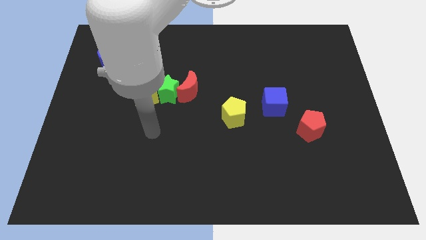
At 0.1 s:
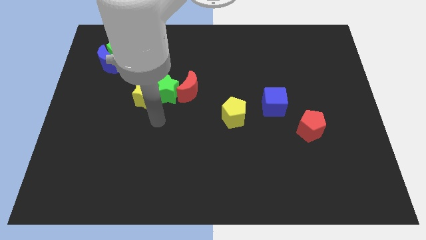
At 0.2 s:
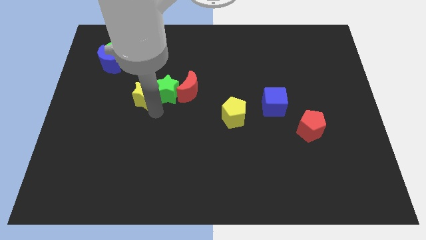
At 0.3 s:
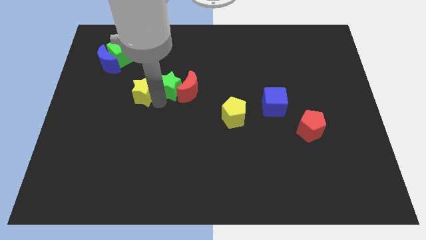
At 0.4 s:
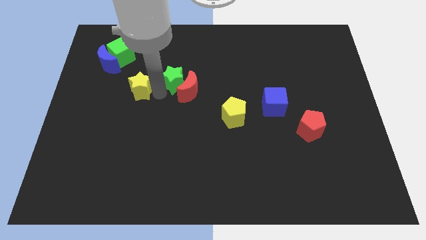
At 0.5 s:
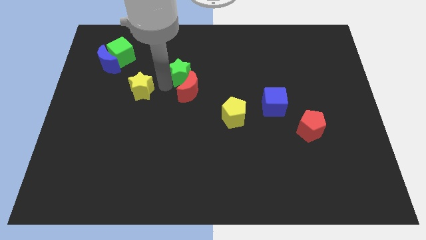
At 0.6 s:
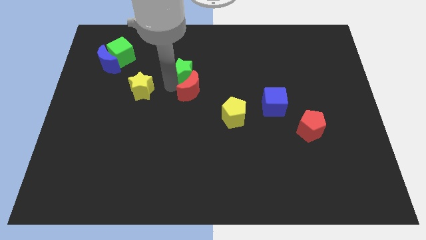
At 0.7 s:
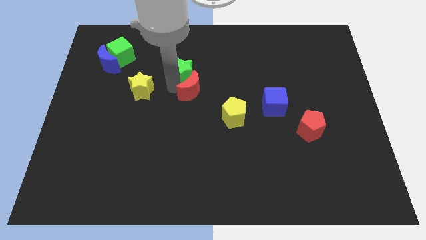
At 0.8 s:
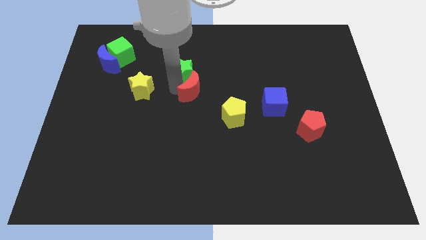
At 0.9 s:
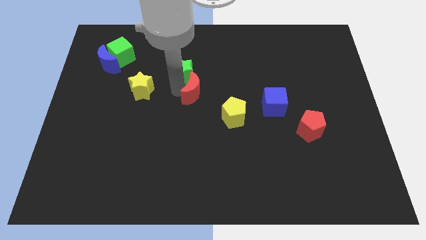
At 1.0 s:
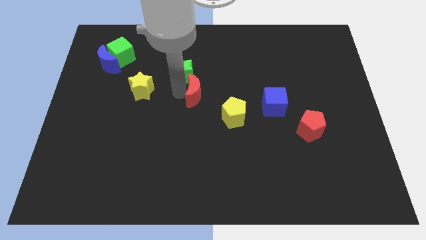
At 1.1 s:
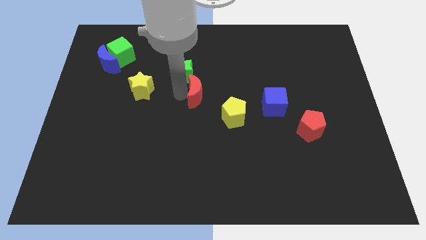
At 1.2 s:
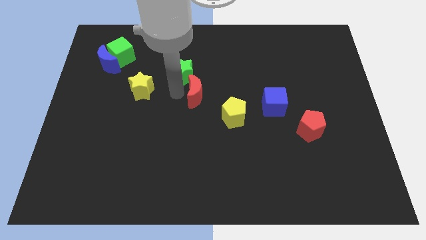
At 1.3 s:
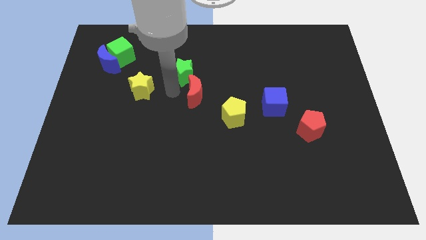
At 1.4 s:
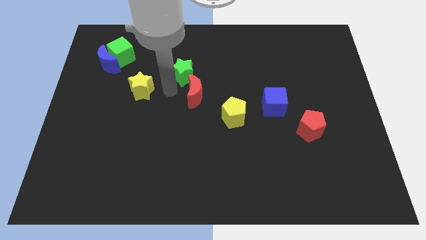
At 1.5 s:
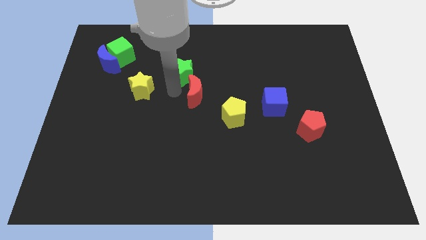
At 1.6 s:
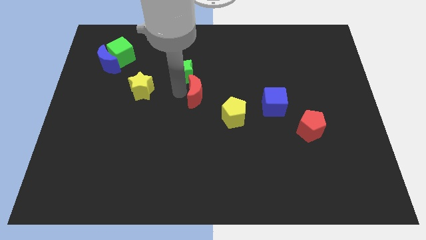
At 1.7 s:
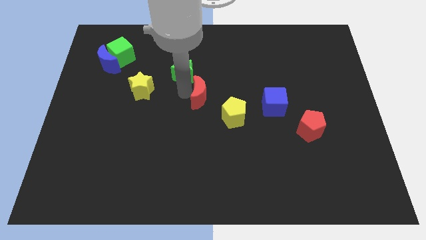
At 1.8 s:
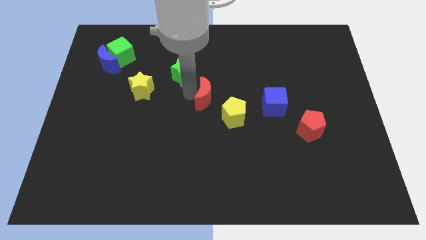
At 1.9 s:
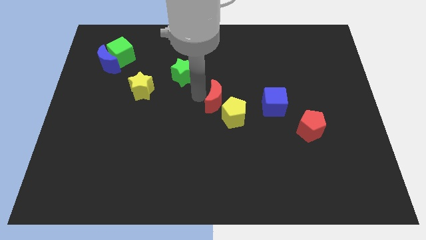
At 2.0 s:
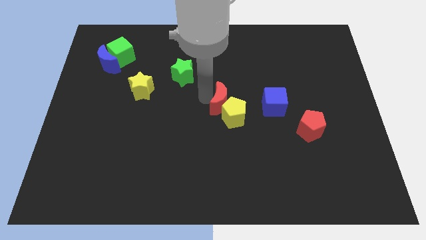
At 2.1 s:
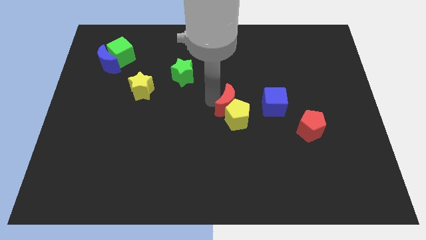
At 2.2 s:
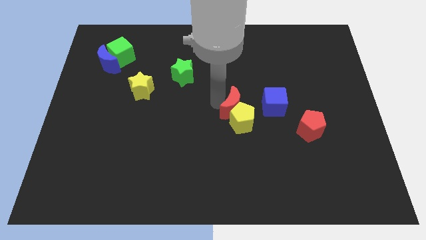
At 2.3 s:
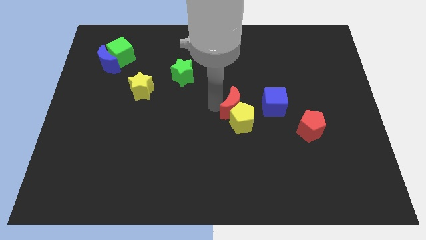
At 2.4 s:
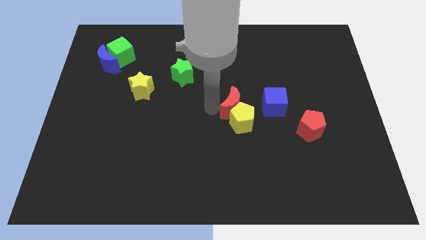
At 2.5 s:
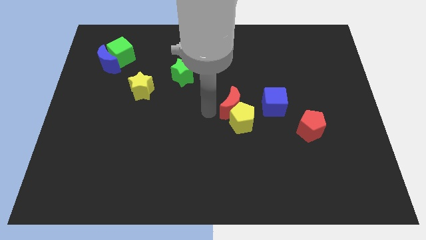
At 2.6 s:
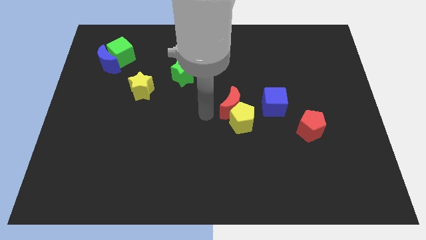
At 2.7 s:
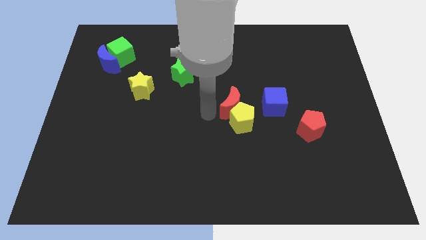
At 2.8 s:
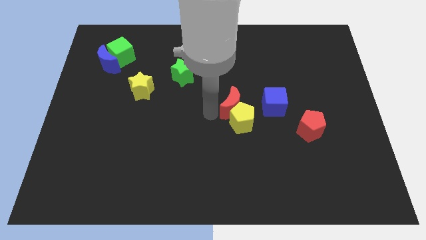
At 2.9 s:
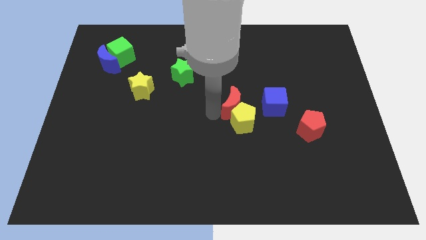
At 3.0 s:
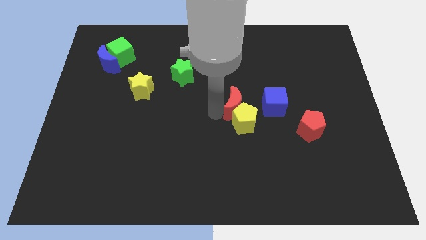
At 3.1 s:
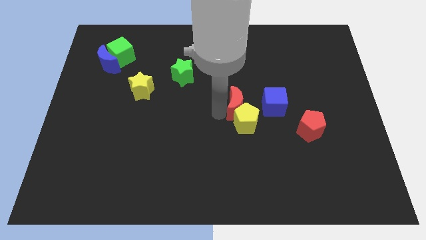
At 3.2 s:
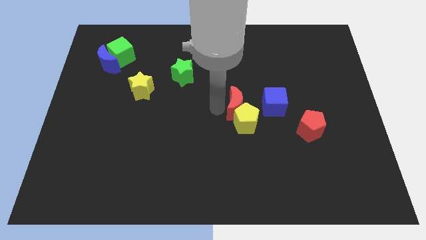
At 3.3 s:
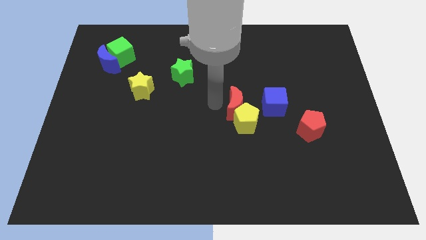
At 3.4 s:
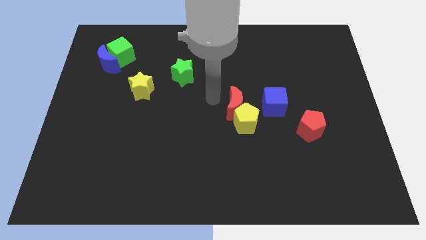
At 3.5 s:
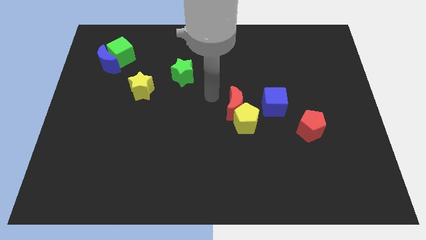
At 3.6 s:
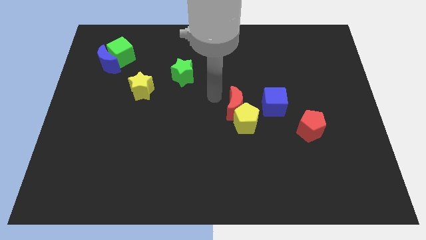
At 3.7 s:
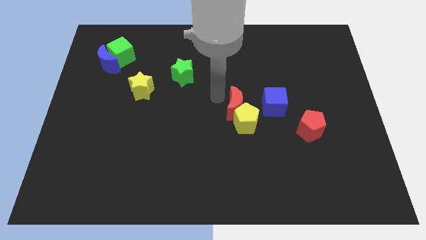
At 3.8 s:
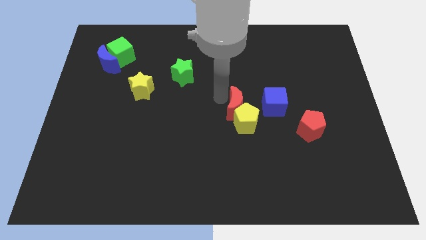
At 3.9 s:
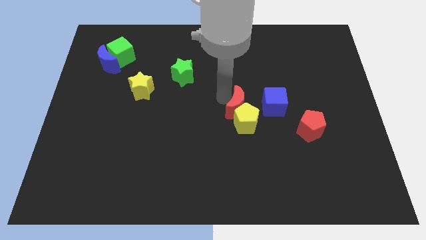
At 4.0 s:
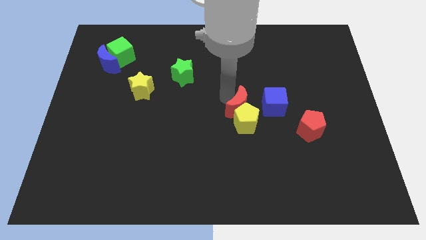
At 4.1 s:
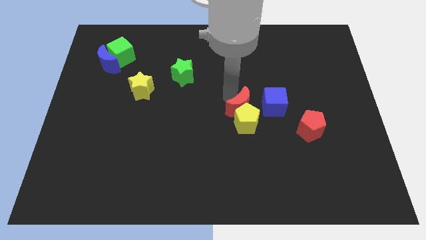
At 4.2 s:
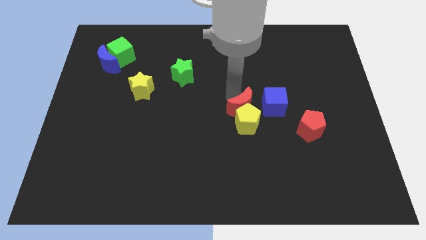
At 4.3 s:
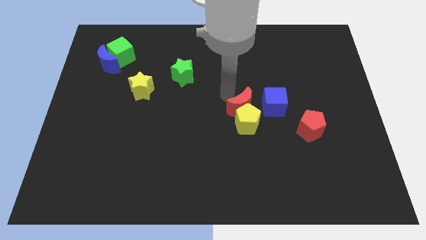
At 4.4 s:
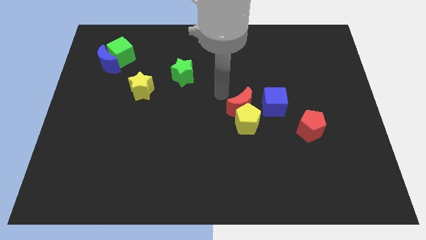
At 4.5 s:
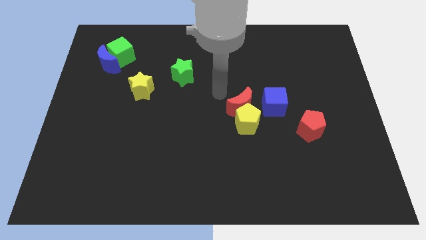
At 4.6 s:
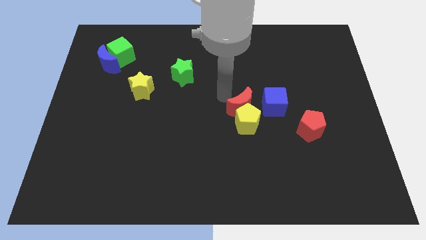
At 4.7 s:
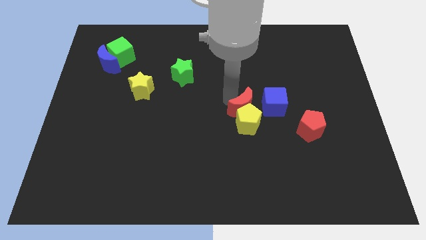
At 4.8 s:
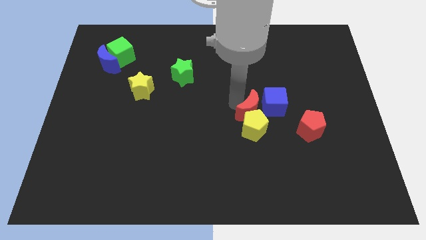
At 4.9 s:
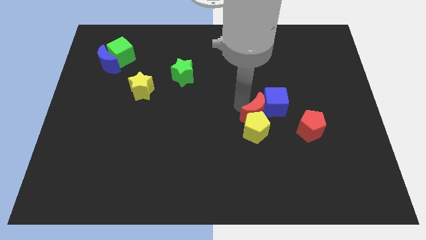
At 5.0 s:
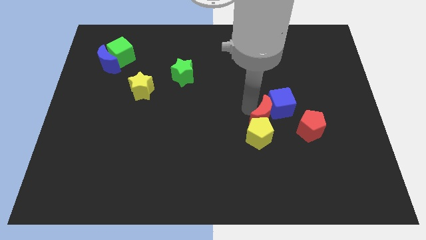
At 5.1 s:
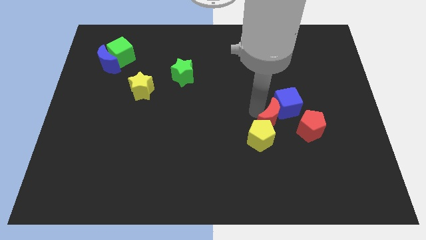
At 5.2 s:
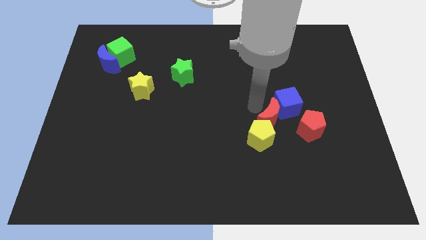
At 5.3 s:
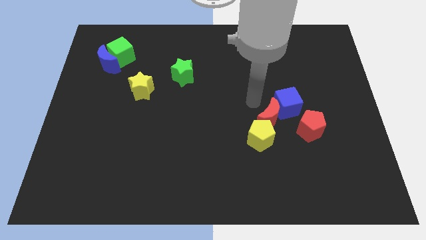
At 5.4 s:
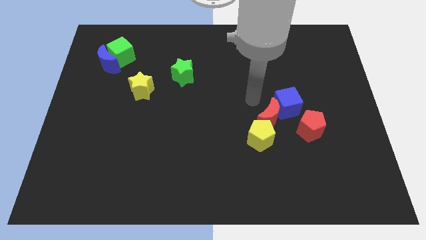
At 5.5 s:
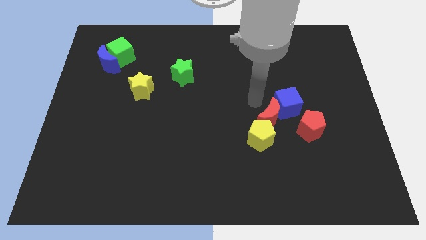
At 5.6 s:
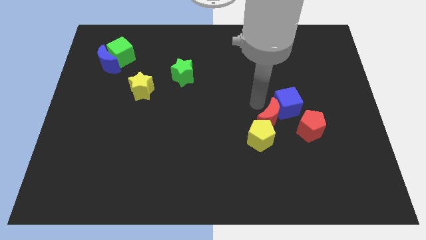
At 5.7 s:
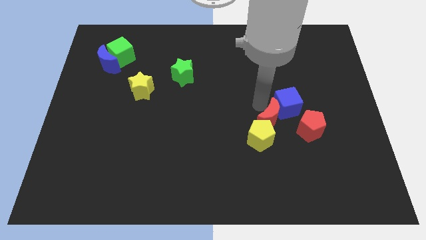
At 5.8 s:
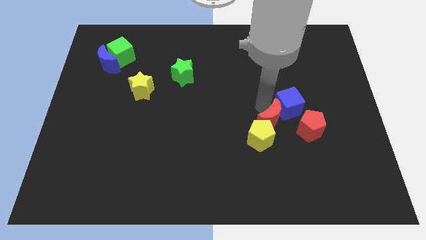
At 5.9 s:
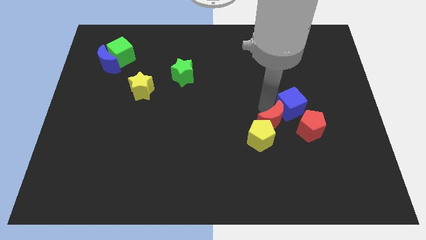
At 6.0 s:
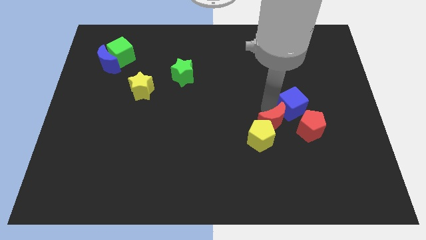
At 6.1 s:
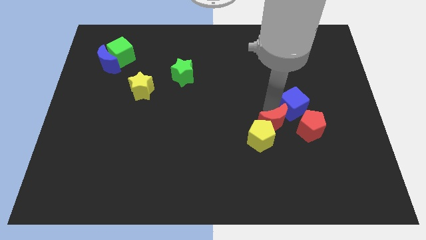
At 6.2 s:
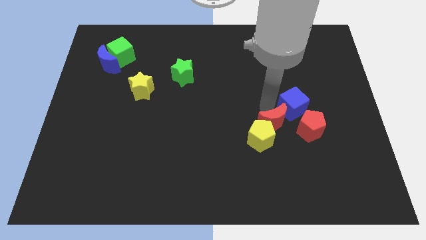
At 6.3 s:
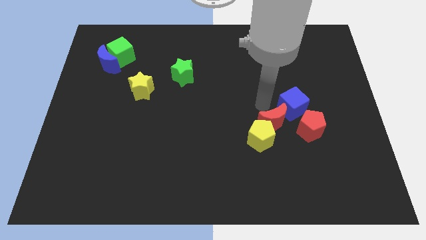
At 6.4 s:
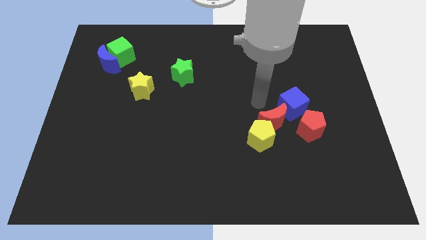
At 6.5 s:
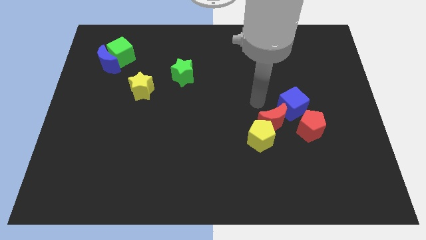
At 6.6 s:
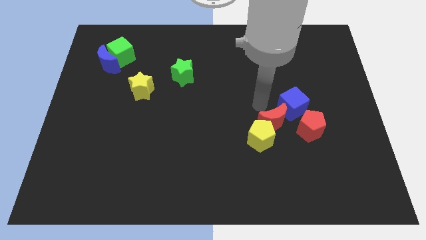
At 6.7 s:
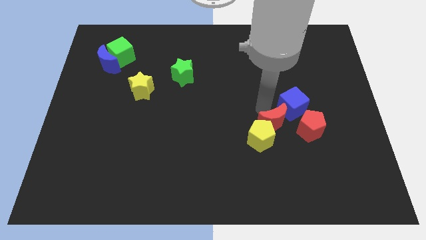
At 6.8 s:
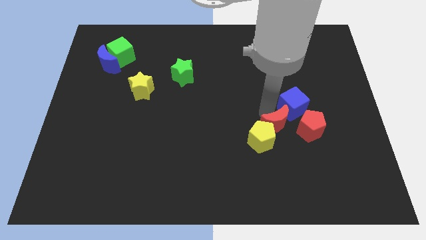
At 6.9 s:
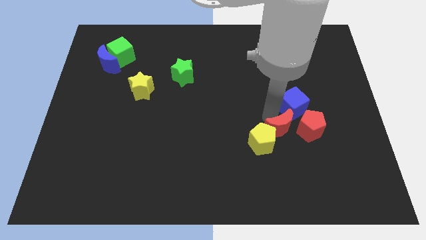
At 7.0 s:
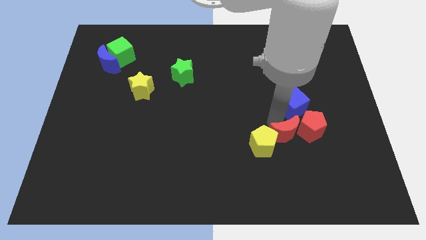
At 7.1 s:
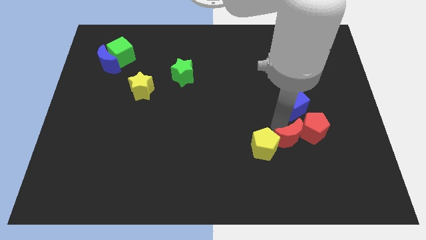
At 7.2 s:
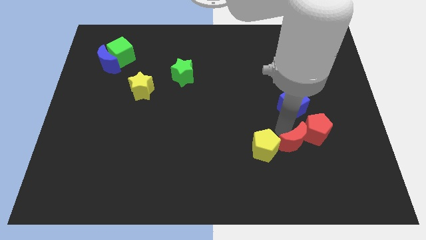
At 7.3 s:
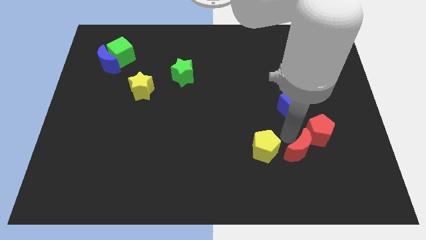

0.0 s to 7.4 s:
push the red moon to the bottom of the red pentagon

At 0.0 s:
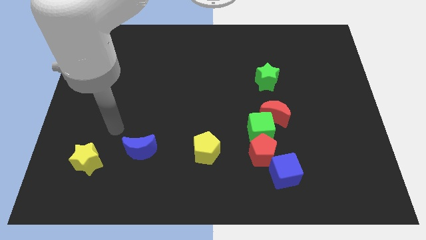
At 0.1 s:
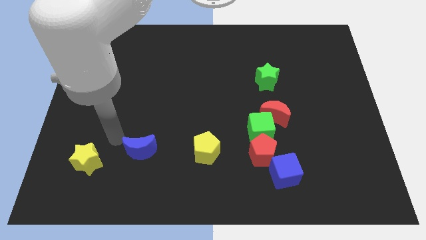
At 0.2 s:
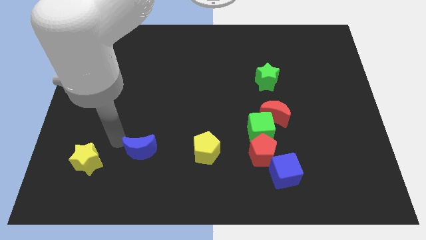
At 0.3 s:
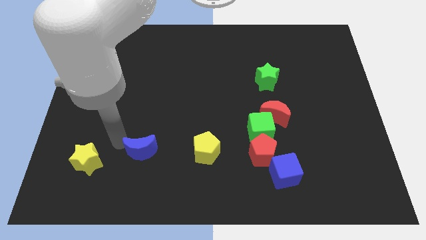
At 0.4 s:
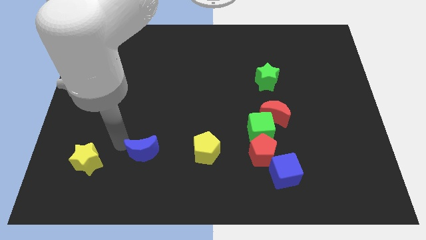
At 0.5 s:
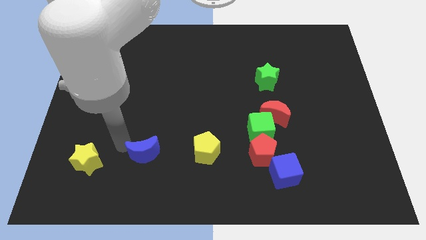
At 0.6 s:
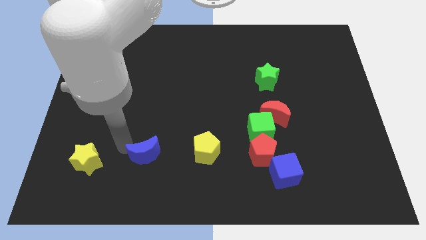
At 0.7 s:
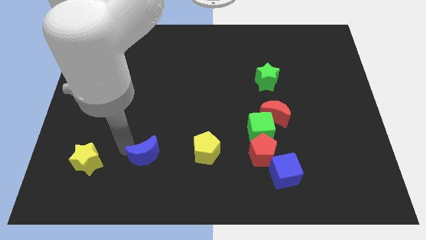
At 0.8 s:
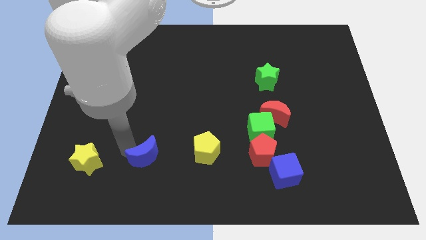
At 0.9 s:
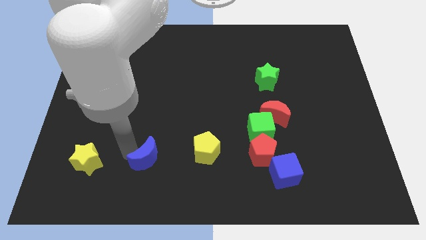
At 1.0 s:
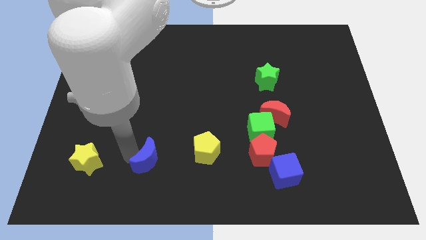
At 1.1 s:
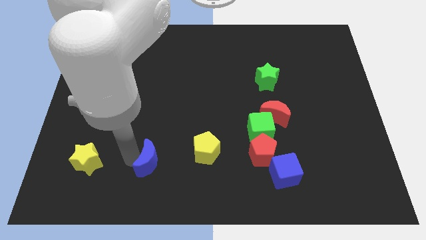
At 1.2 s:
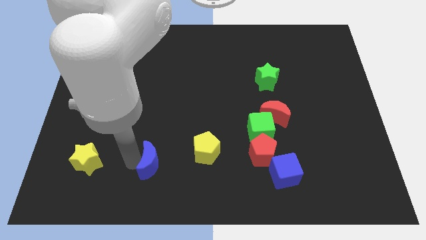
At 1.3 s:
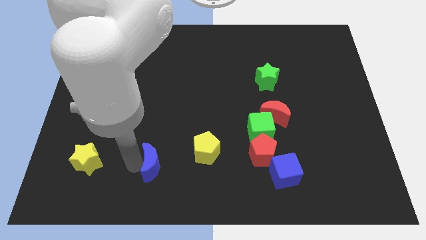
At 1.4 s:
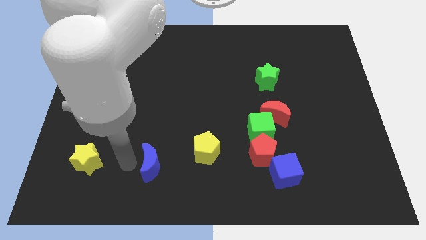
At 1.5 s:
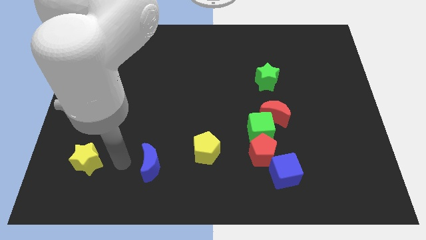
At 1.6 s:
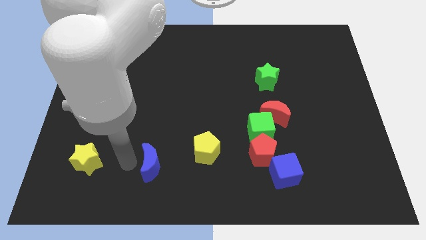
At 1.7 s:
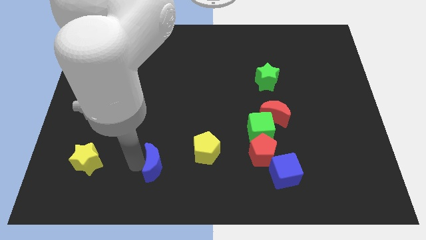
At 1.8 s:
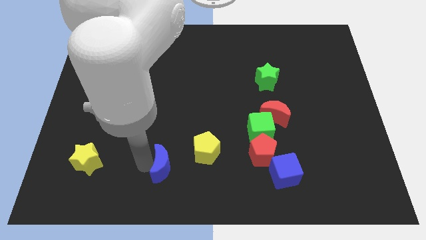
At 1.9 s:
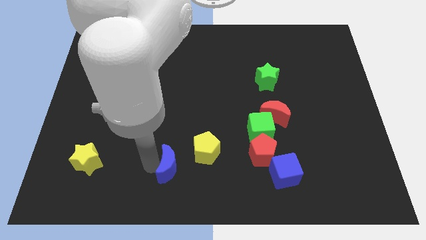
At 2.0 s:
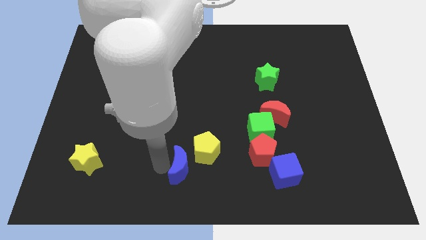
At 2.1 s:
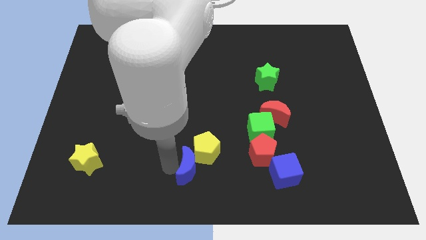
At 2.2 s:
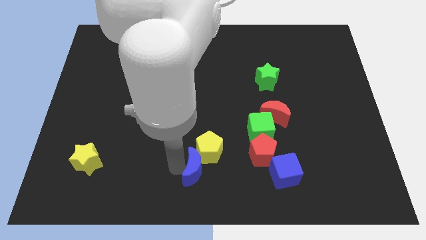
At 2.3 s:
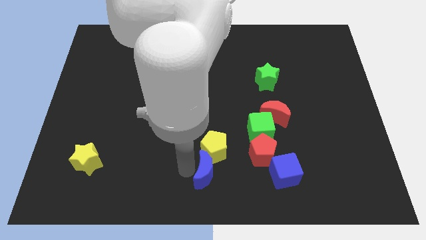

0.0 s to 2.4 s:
push the blue moon left of the blue cube
